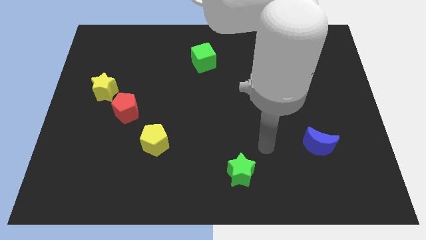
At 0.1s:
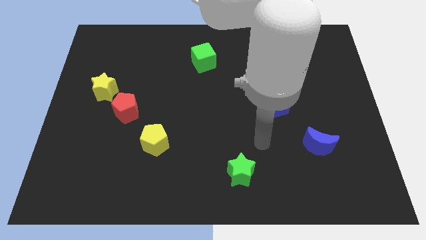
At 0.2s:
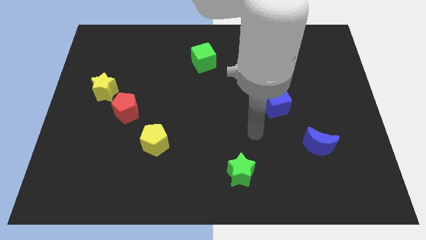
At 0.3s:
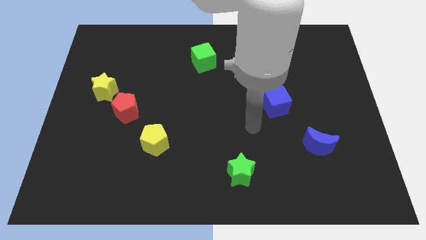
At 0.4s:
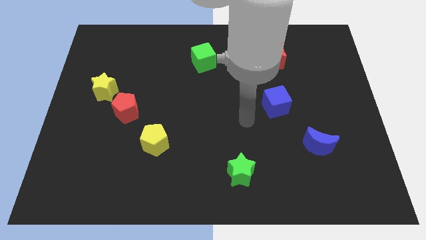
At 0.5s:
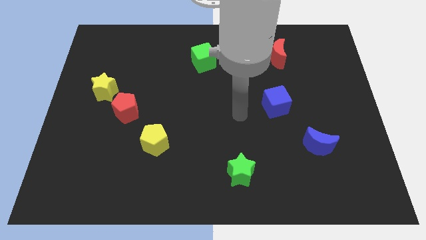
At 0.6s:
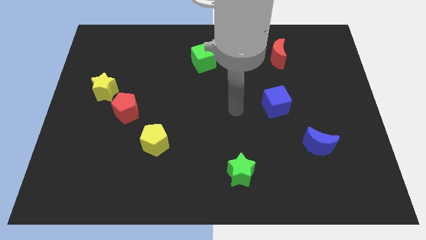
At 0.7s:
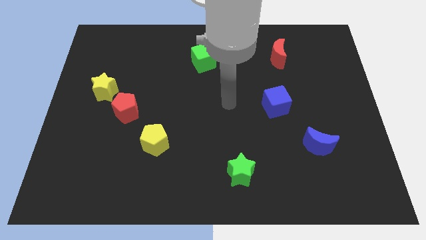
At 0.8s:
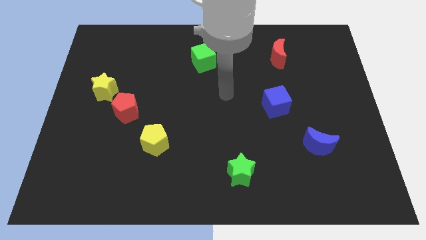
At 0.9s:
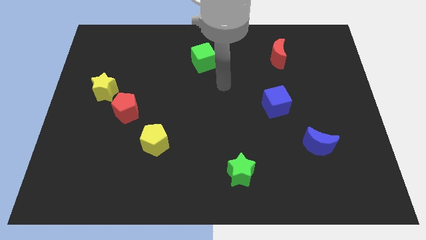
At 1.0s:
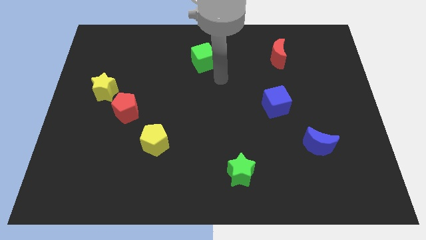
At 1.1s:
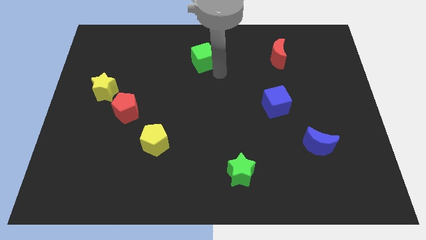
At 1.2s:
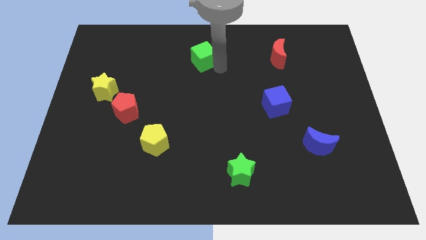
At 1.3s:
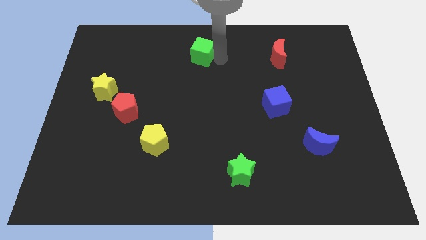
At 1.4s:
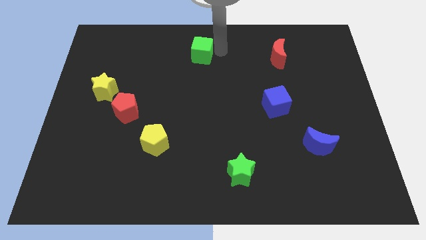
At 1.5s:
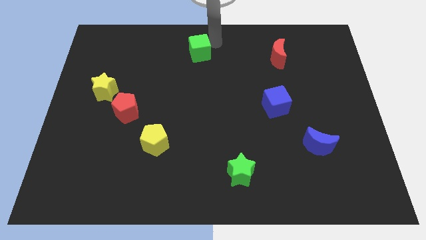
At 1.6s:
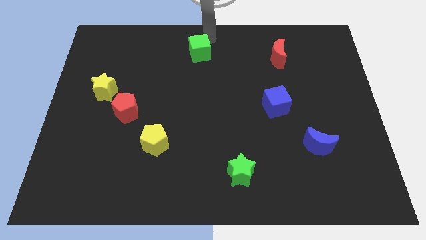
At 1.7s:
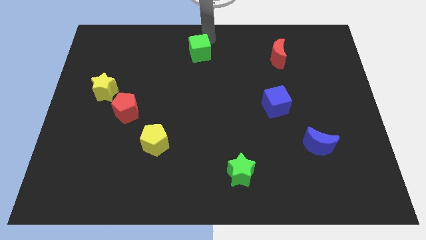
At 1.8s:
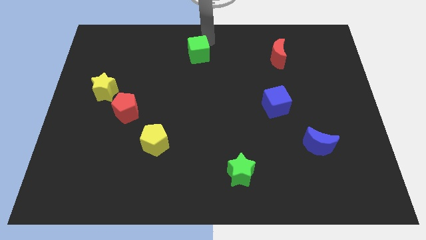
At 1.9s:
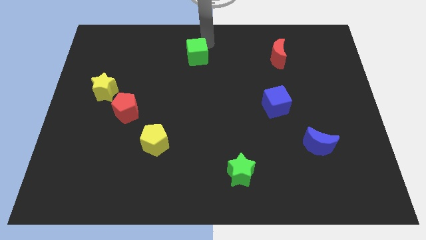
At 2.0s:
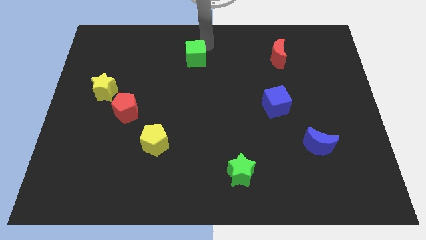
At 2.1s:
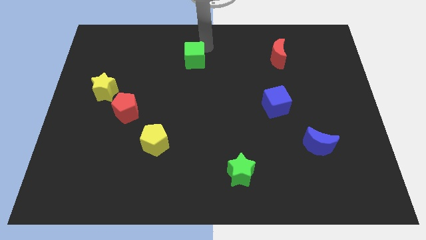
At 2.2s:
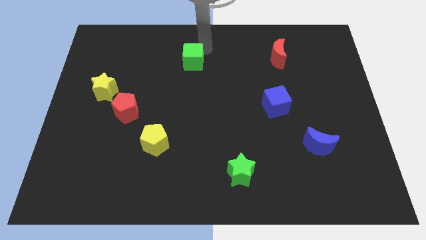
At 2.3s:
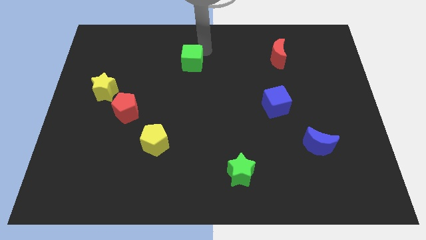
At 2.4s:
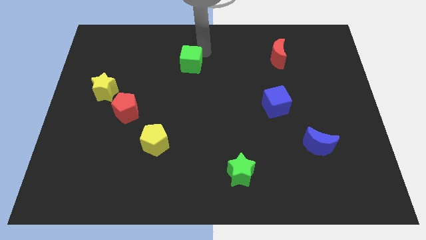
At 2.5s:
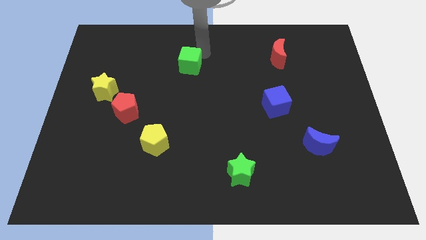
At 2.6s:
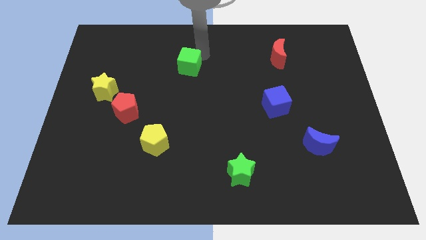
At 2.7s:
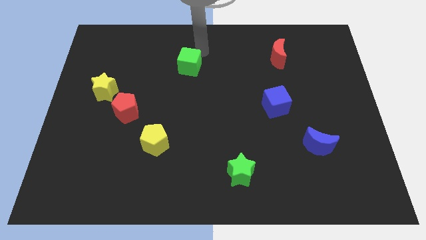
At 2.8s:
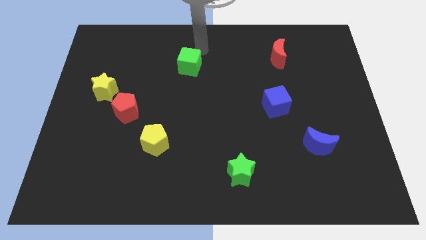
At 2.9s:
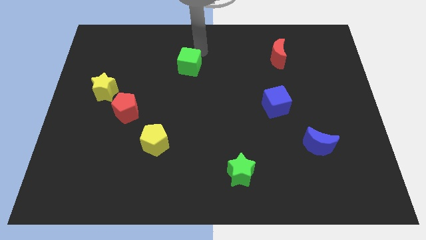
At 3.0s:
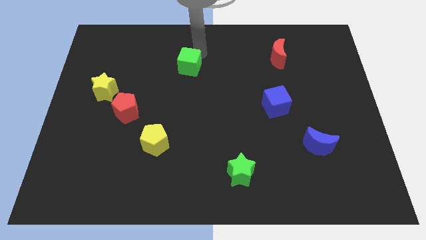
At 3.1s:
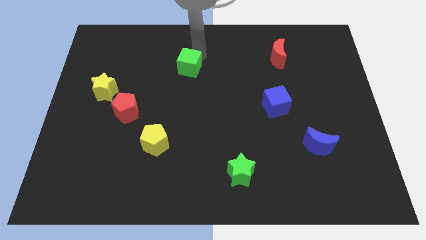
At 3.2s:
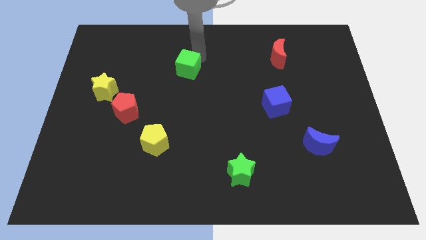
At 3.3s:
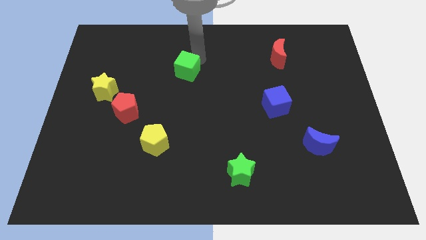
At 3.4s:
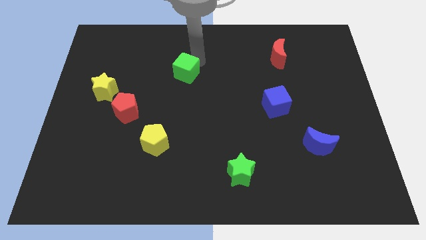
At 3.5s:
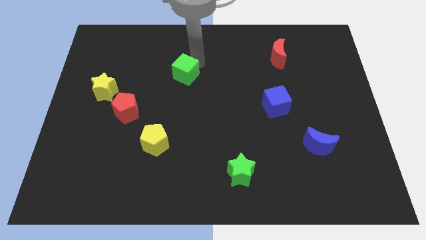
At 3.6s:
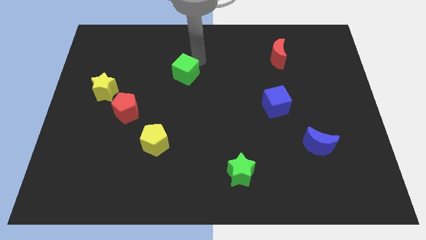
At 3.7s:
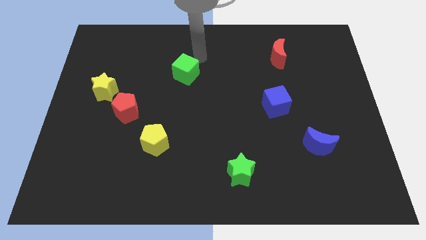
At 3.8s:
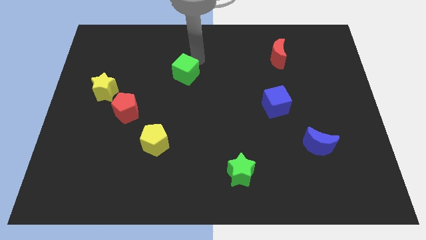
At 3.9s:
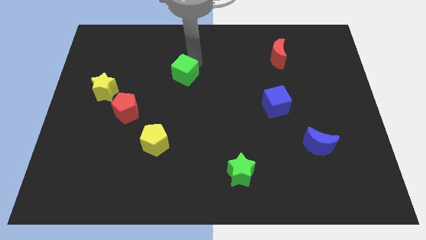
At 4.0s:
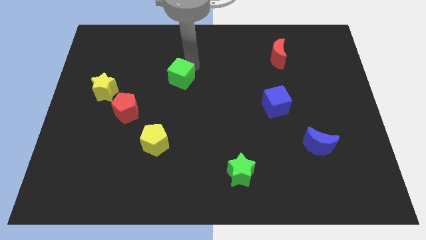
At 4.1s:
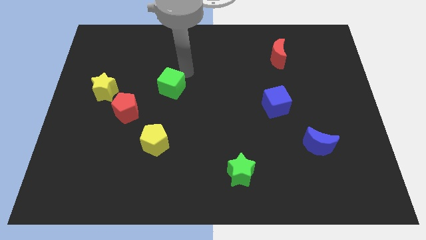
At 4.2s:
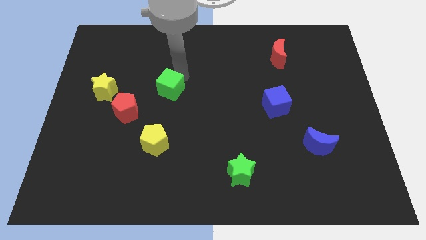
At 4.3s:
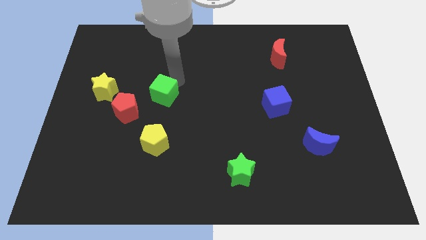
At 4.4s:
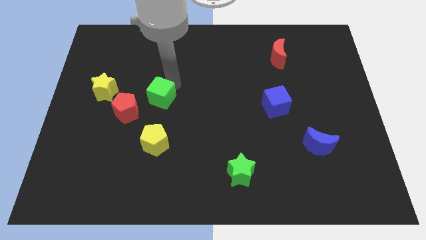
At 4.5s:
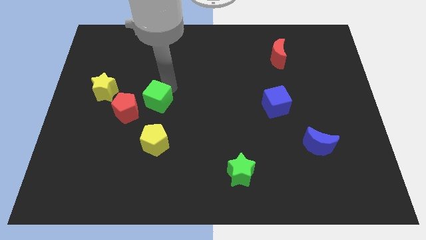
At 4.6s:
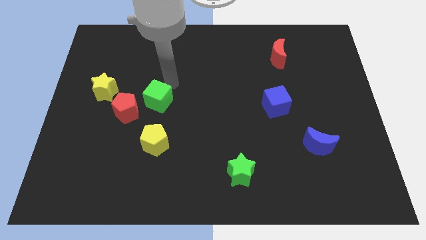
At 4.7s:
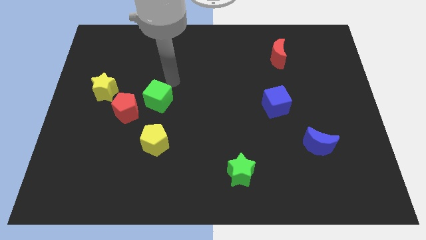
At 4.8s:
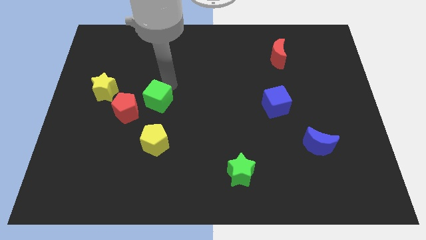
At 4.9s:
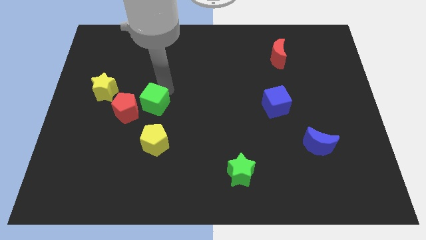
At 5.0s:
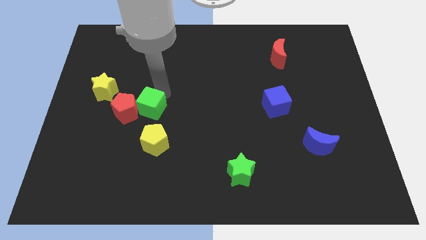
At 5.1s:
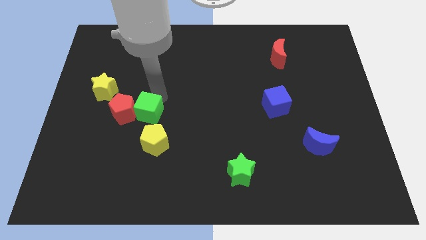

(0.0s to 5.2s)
push the green cube diagonally down and to the left

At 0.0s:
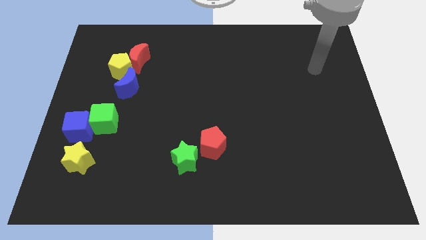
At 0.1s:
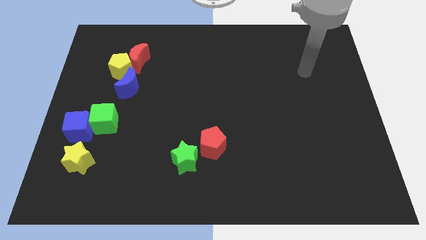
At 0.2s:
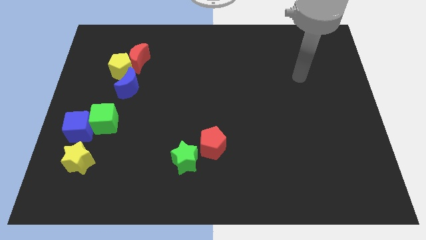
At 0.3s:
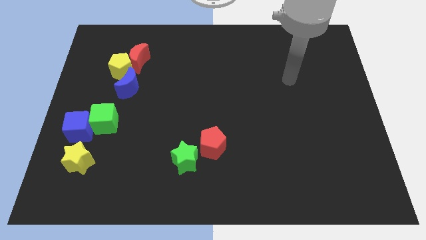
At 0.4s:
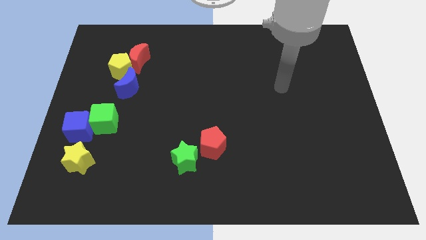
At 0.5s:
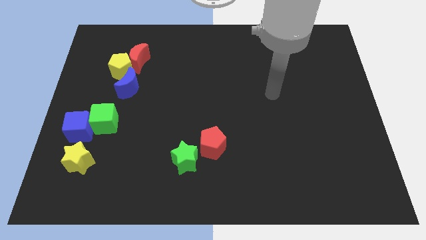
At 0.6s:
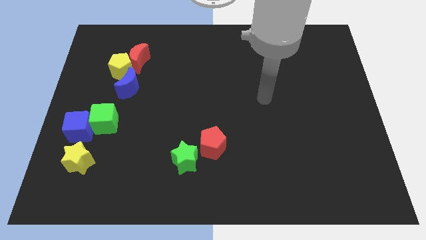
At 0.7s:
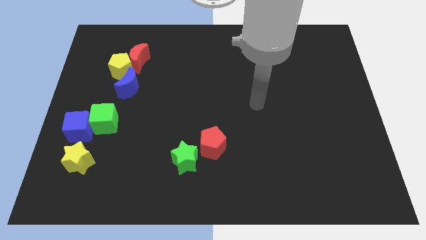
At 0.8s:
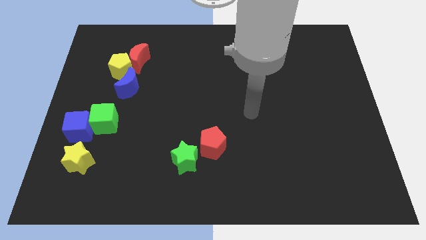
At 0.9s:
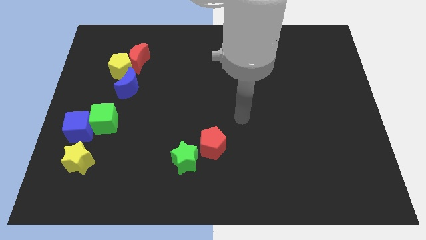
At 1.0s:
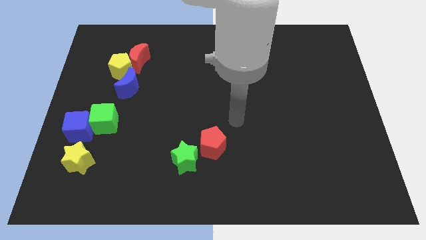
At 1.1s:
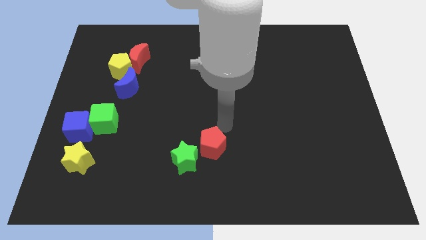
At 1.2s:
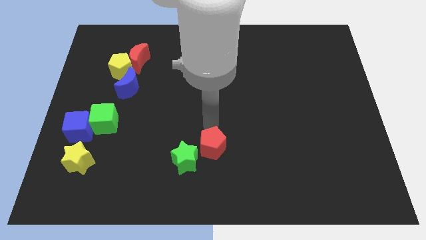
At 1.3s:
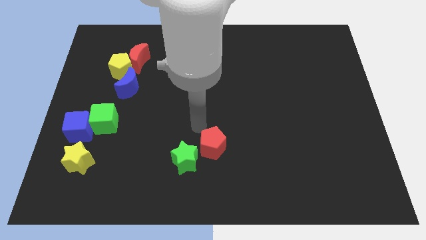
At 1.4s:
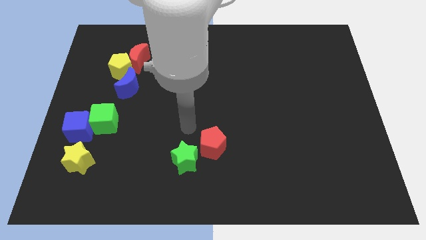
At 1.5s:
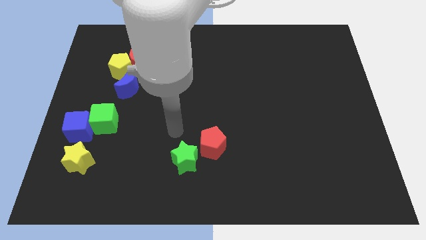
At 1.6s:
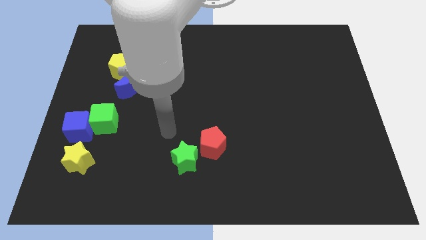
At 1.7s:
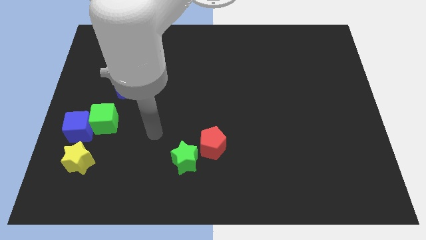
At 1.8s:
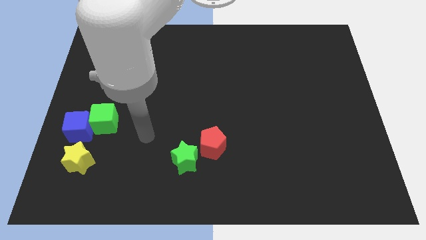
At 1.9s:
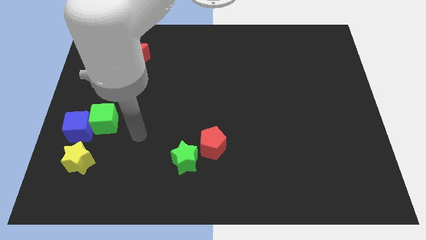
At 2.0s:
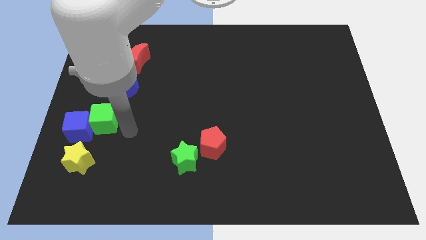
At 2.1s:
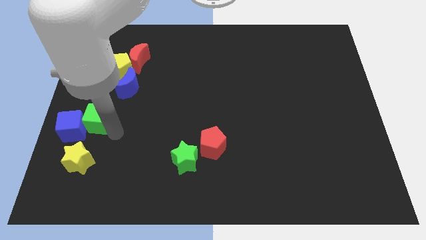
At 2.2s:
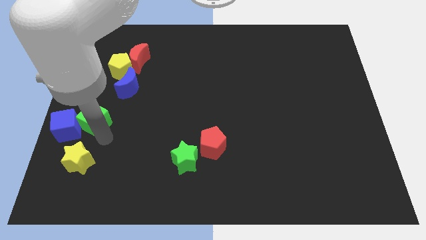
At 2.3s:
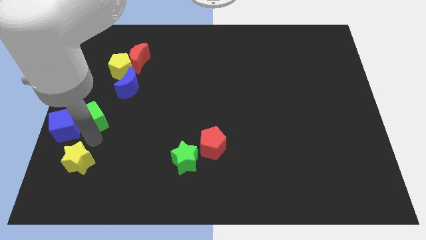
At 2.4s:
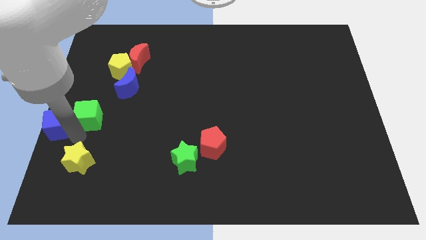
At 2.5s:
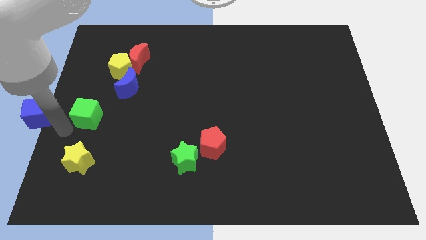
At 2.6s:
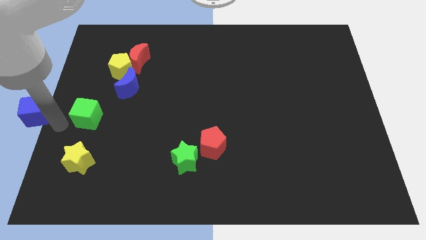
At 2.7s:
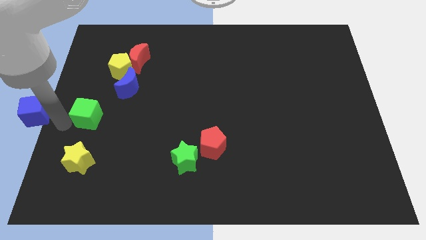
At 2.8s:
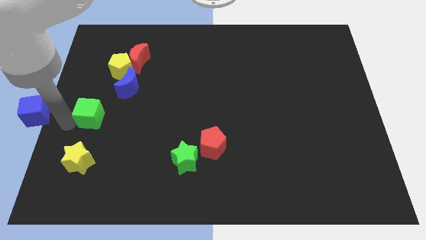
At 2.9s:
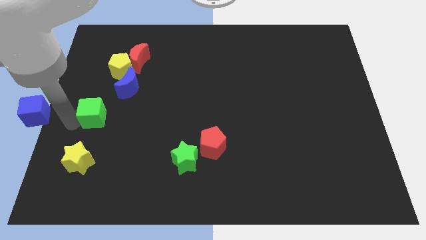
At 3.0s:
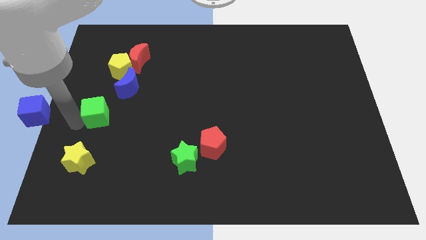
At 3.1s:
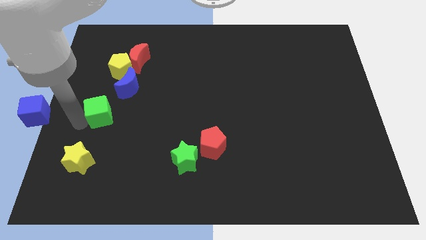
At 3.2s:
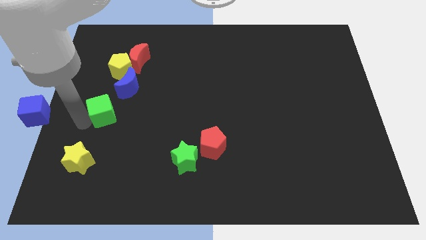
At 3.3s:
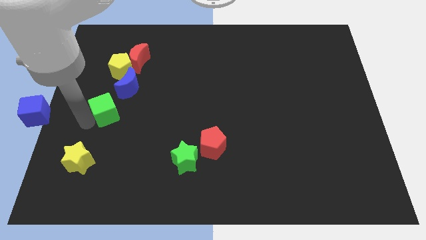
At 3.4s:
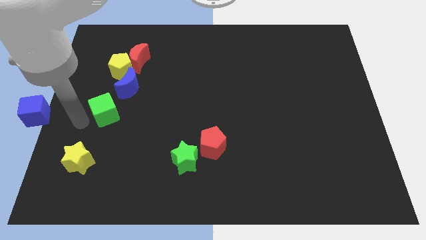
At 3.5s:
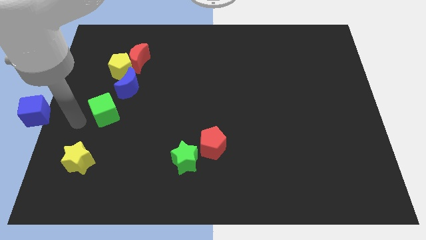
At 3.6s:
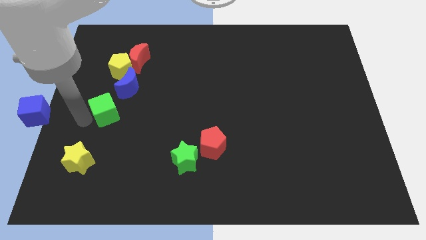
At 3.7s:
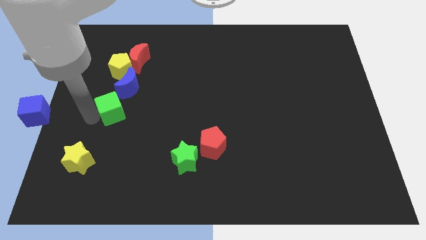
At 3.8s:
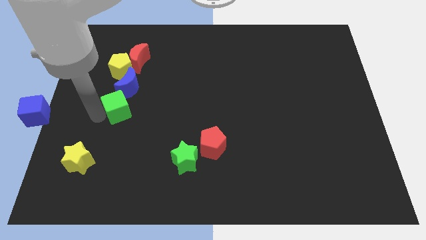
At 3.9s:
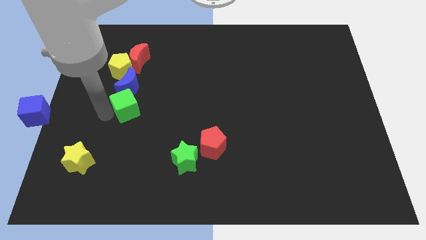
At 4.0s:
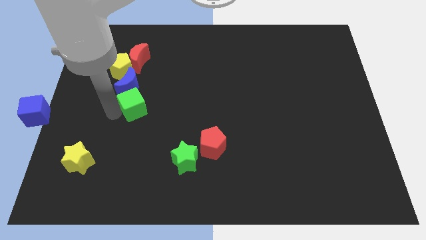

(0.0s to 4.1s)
slightly slide the green cube up and right diagonally
